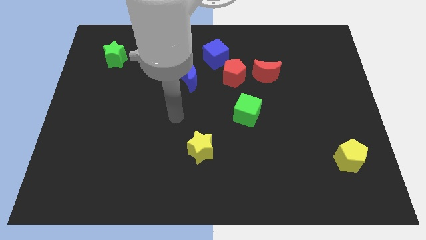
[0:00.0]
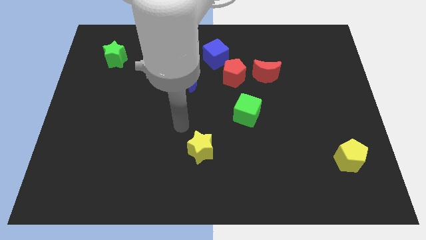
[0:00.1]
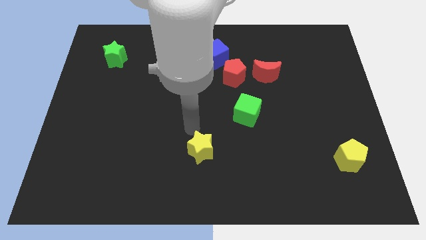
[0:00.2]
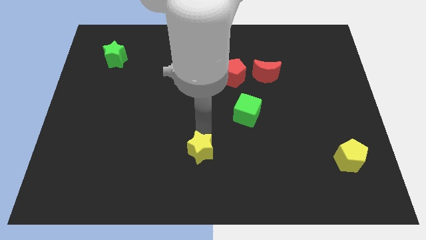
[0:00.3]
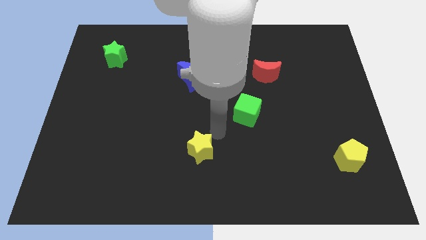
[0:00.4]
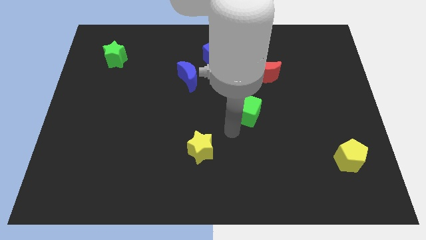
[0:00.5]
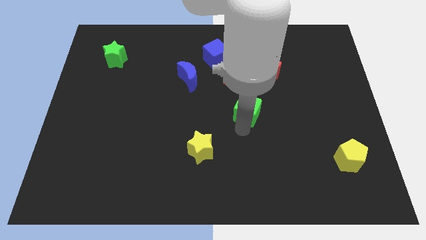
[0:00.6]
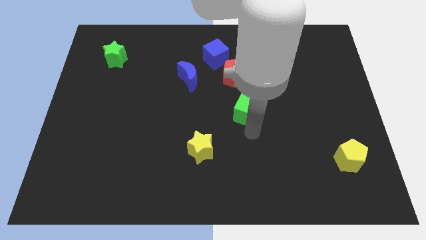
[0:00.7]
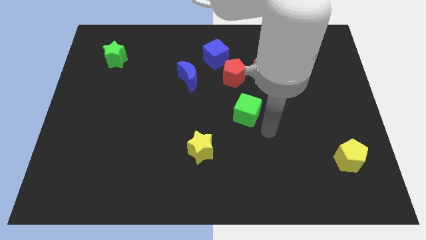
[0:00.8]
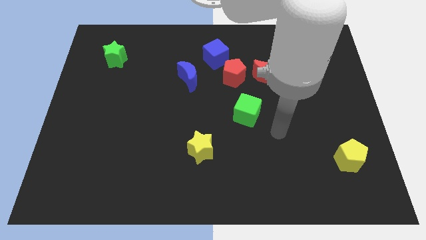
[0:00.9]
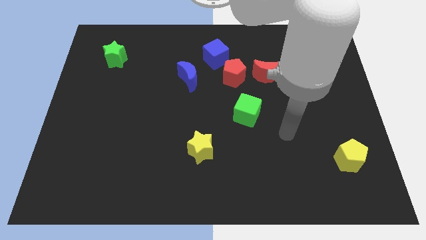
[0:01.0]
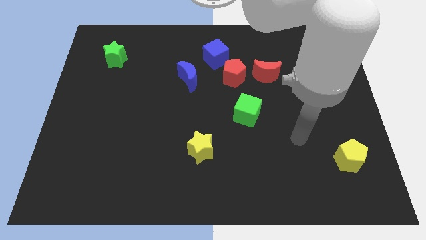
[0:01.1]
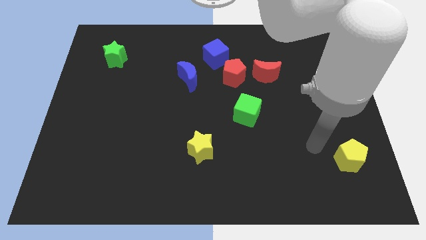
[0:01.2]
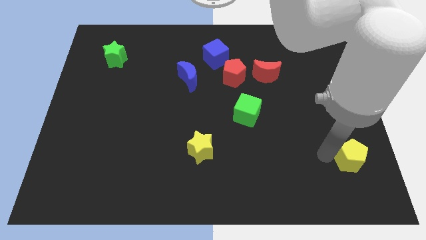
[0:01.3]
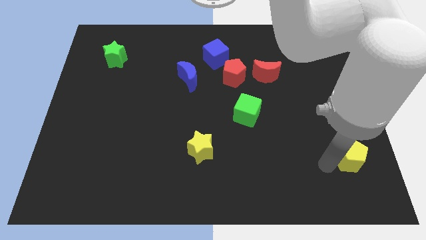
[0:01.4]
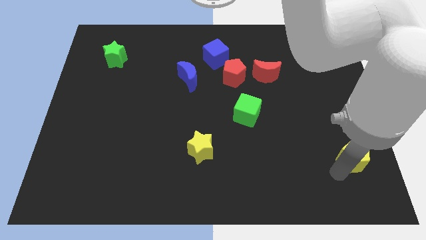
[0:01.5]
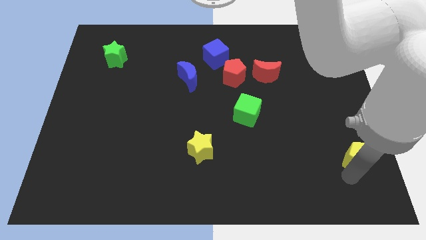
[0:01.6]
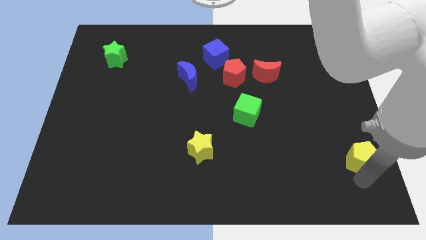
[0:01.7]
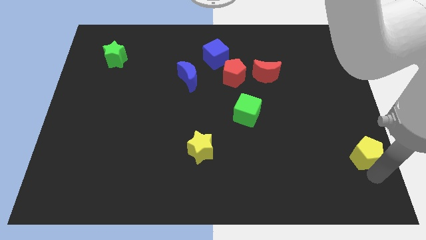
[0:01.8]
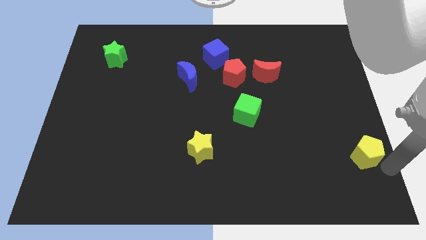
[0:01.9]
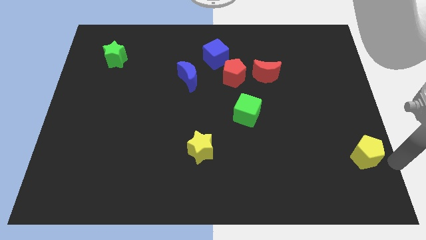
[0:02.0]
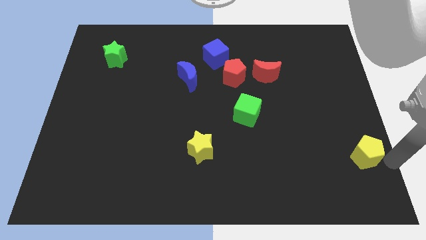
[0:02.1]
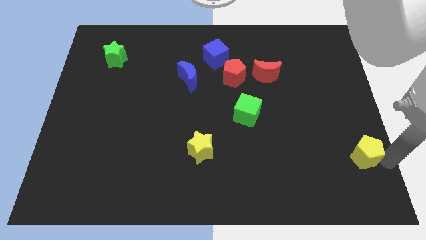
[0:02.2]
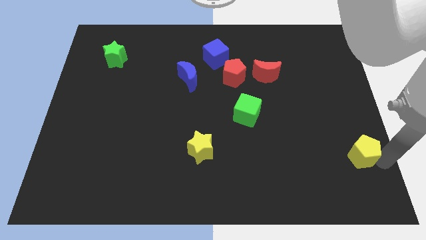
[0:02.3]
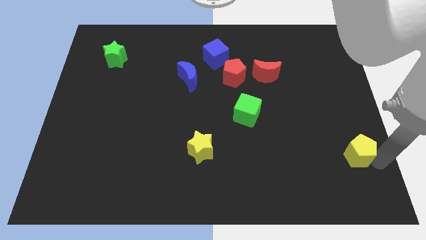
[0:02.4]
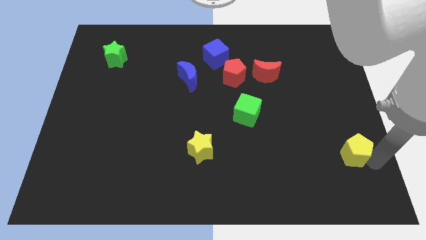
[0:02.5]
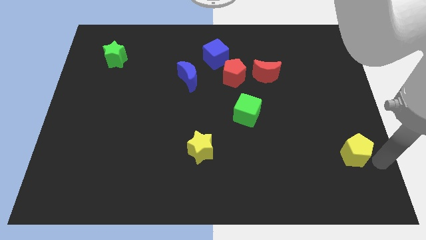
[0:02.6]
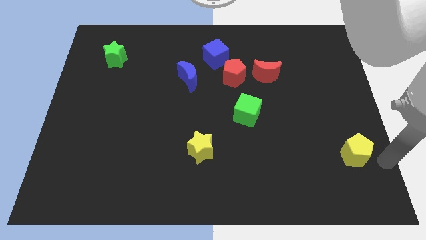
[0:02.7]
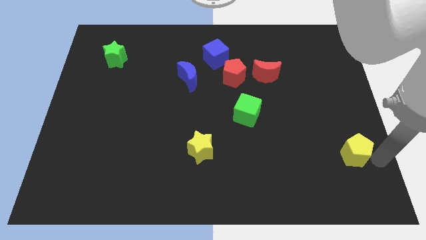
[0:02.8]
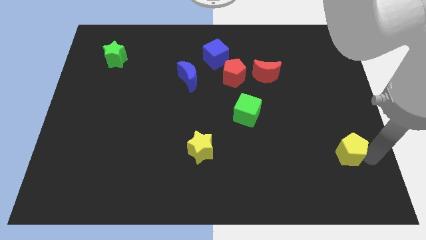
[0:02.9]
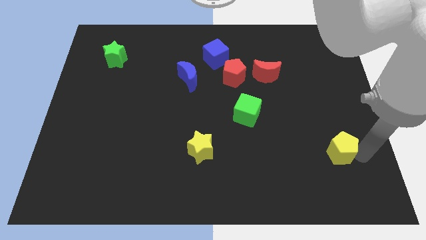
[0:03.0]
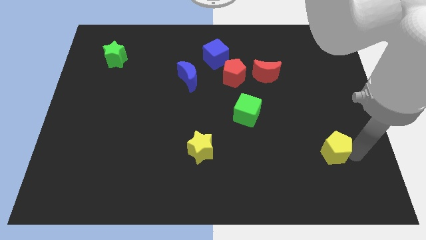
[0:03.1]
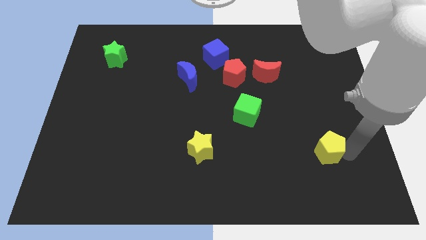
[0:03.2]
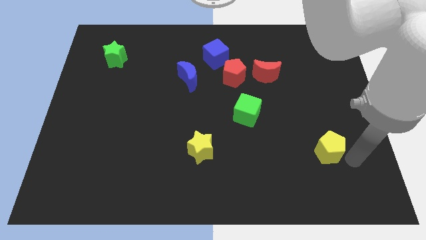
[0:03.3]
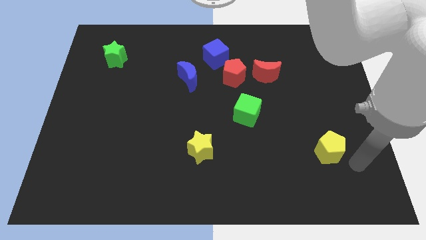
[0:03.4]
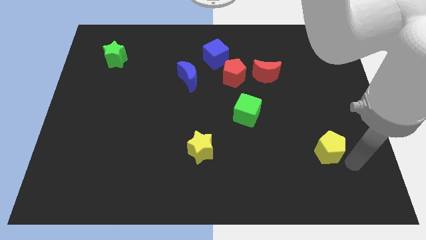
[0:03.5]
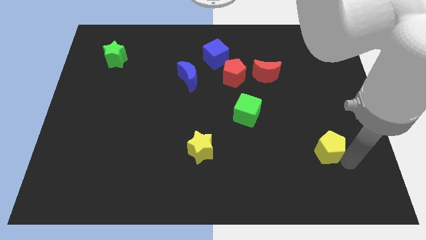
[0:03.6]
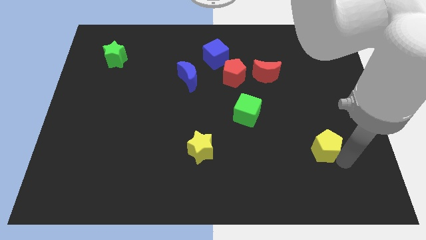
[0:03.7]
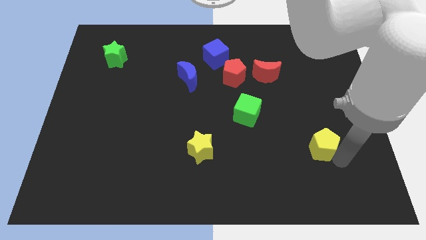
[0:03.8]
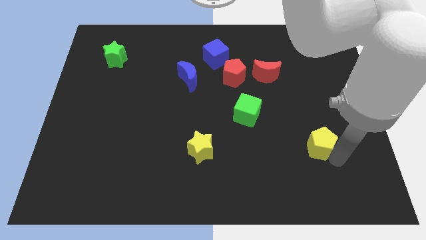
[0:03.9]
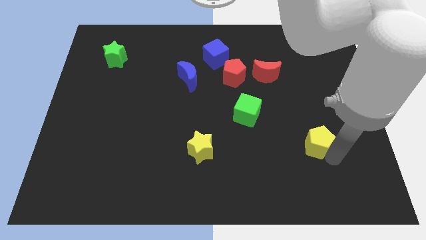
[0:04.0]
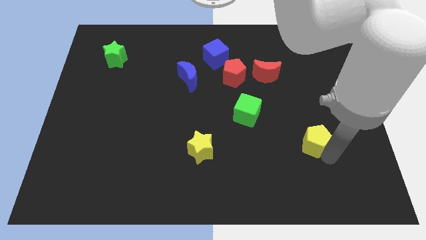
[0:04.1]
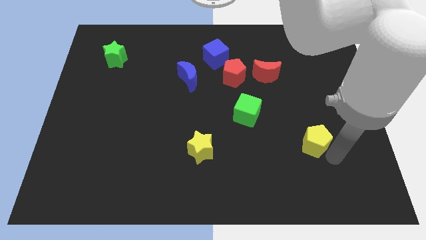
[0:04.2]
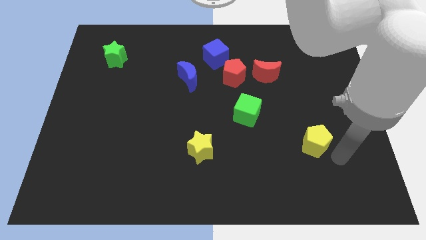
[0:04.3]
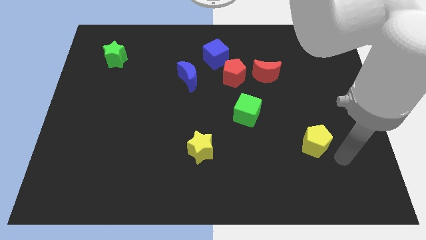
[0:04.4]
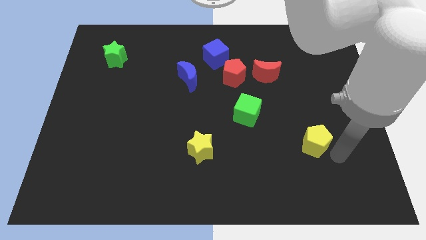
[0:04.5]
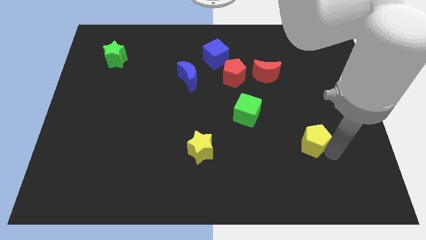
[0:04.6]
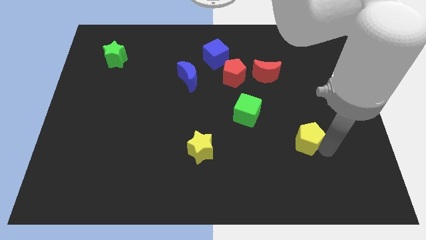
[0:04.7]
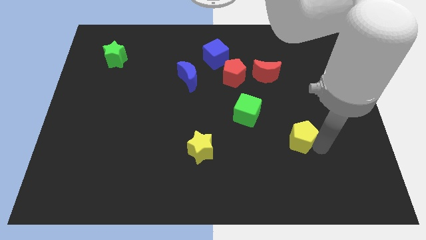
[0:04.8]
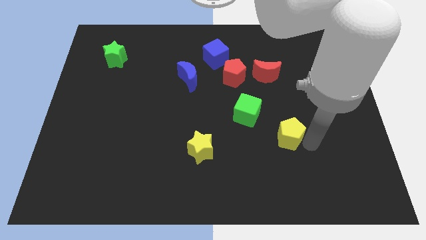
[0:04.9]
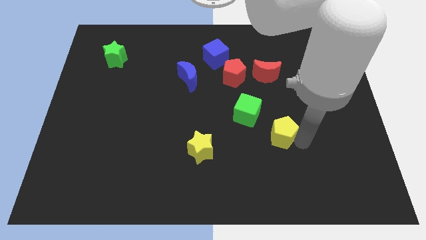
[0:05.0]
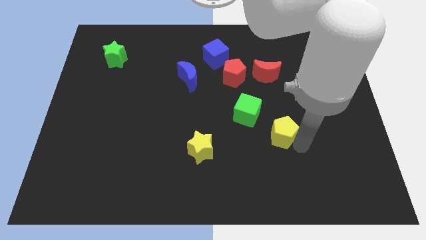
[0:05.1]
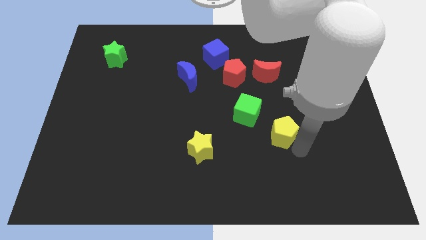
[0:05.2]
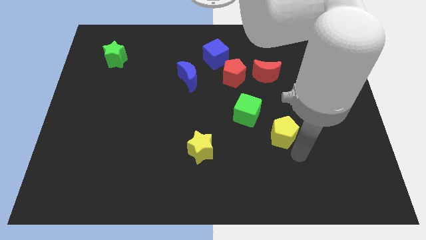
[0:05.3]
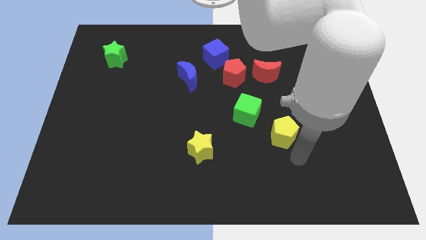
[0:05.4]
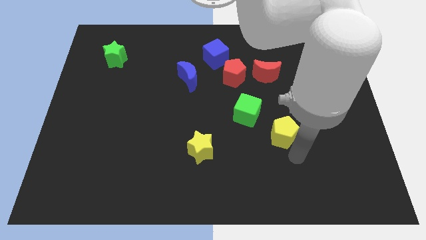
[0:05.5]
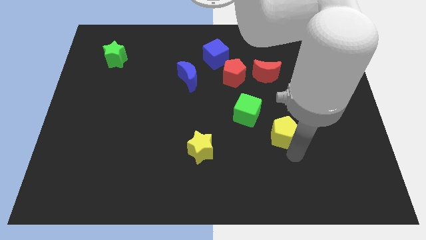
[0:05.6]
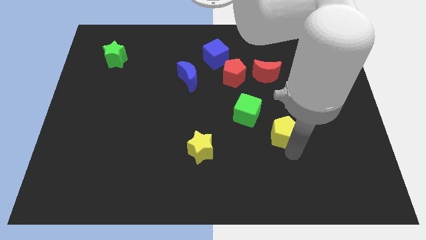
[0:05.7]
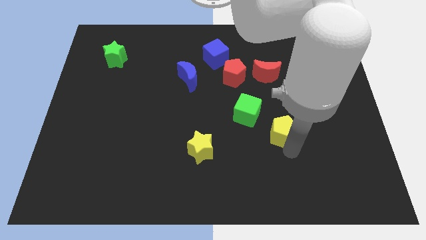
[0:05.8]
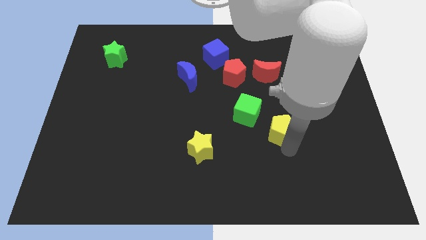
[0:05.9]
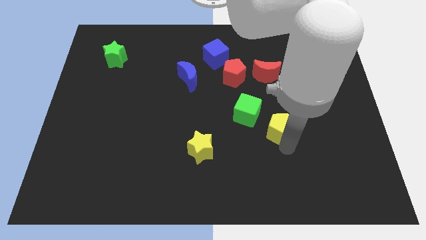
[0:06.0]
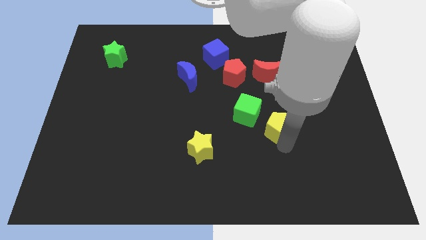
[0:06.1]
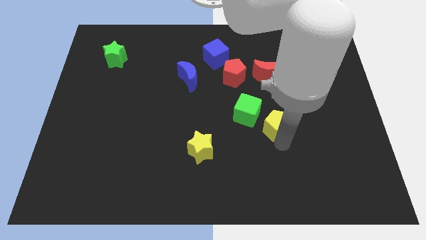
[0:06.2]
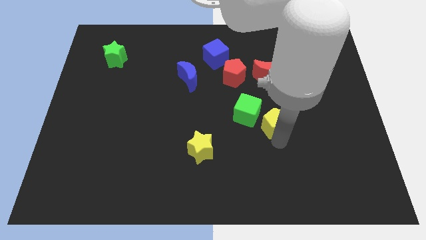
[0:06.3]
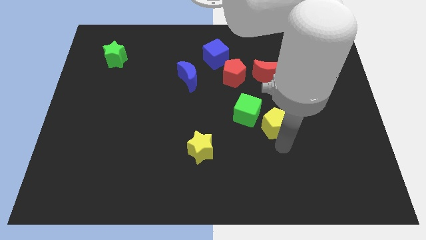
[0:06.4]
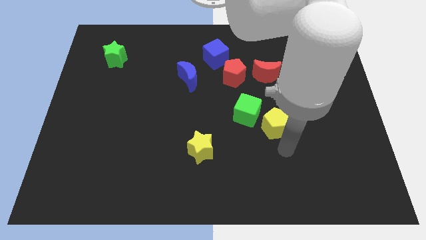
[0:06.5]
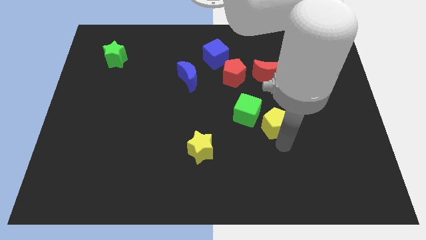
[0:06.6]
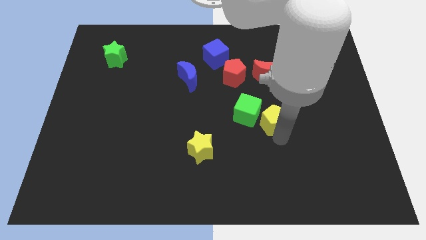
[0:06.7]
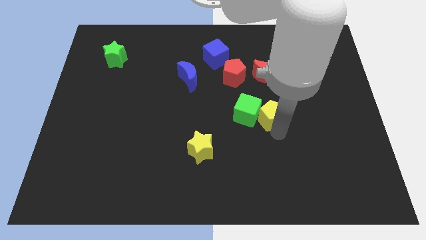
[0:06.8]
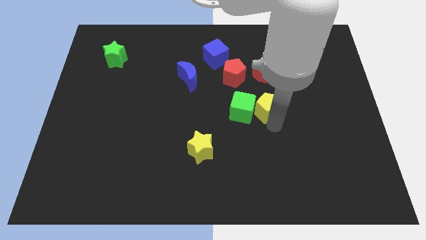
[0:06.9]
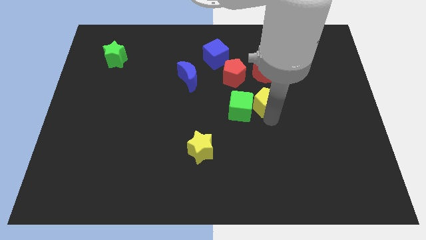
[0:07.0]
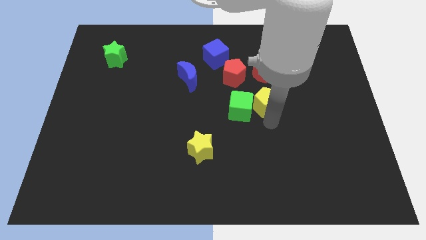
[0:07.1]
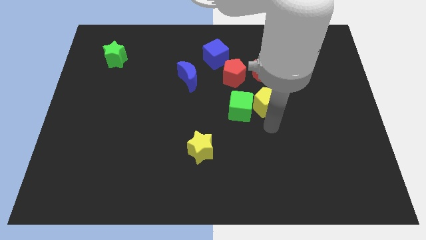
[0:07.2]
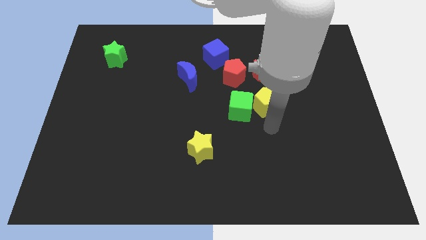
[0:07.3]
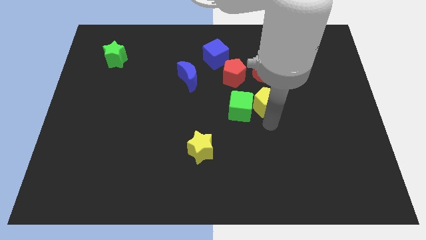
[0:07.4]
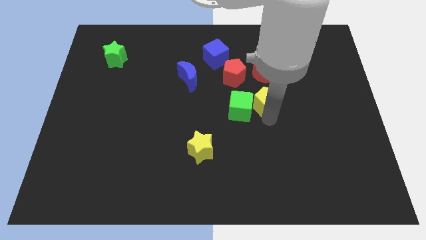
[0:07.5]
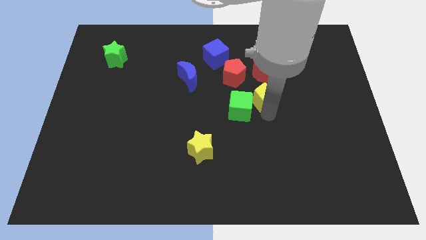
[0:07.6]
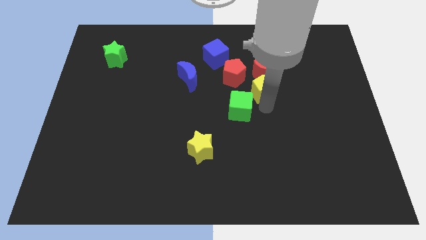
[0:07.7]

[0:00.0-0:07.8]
move the yellow pentagon to the red moon
